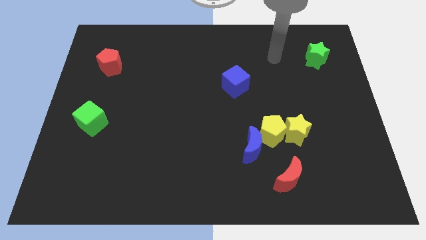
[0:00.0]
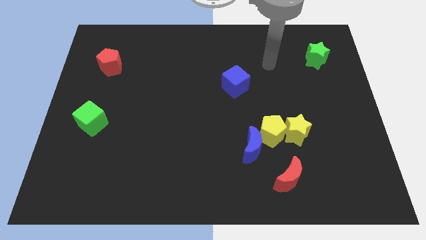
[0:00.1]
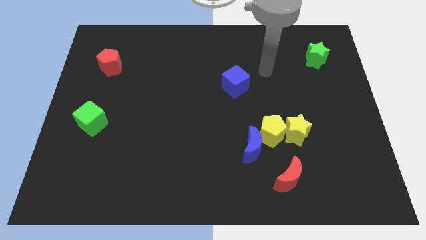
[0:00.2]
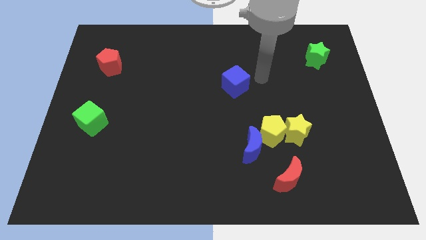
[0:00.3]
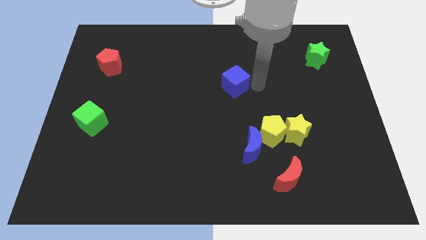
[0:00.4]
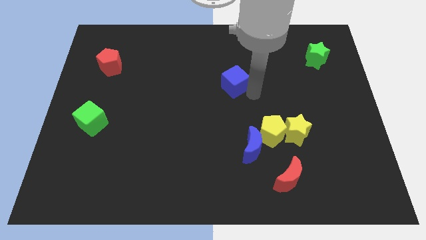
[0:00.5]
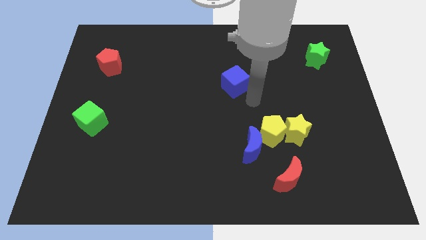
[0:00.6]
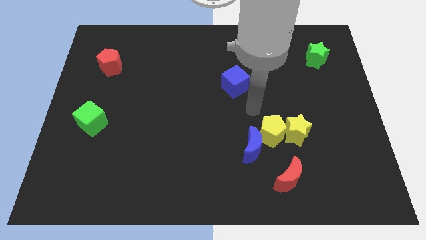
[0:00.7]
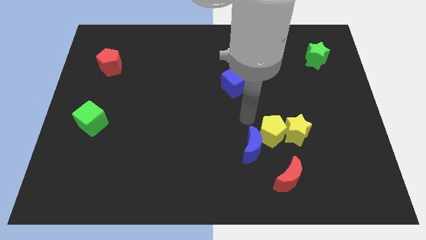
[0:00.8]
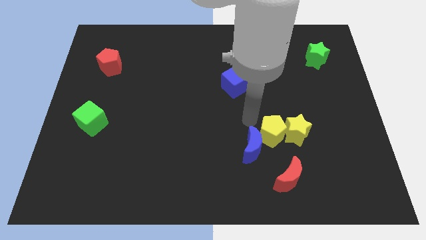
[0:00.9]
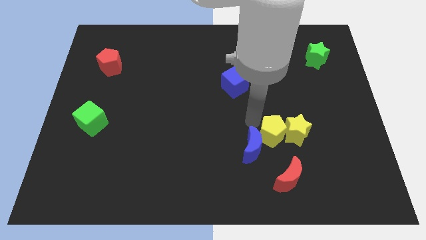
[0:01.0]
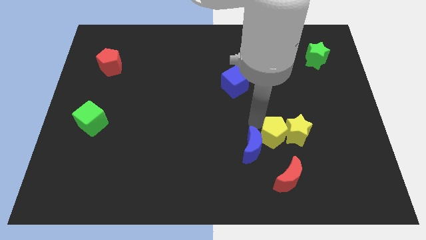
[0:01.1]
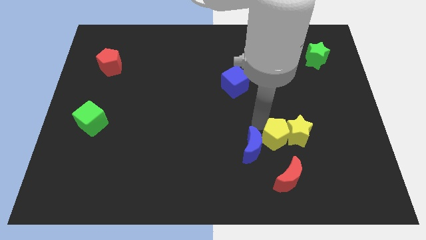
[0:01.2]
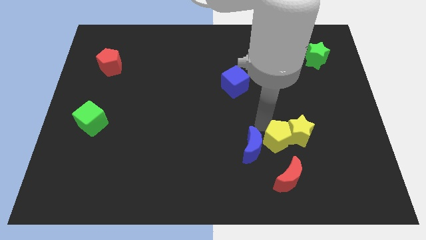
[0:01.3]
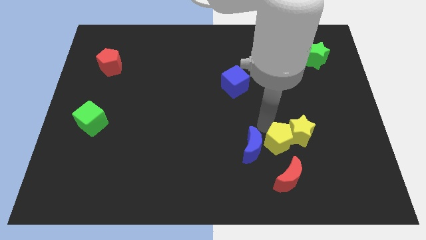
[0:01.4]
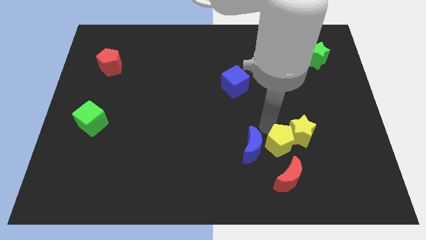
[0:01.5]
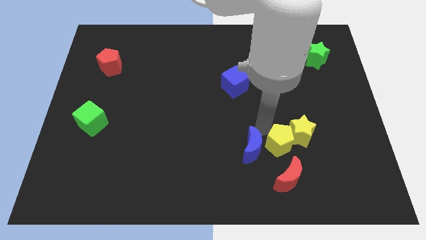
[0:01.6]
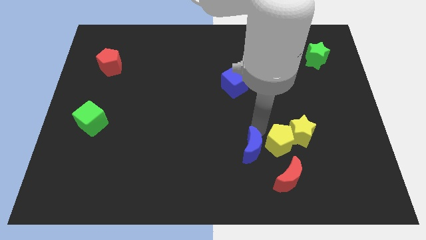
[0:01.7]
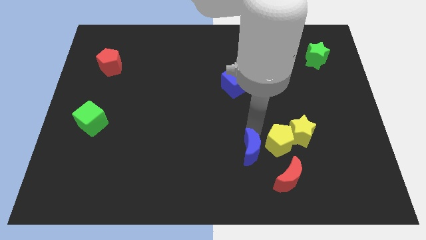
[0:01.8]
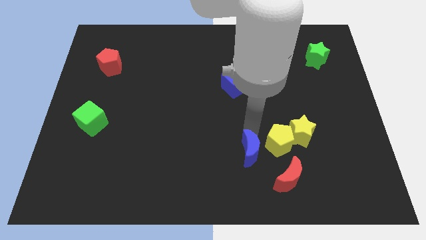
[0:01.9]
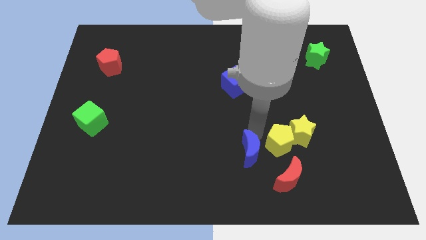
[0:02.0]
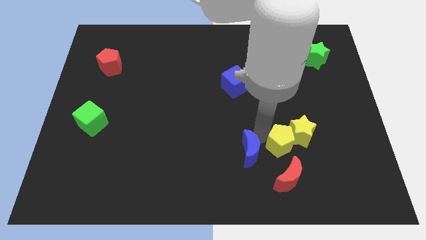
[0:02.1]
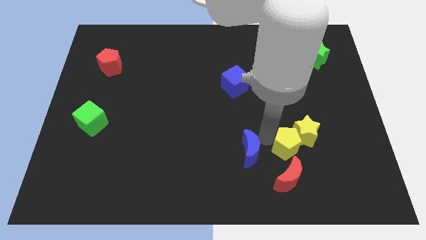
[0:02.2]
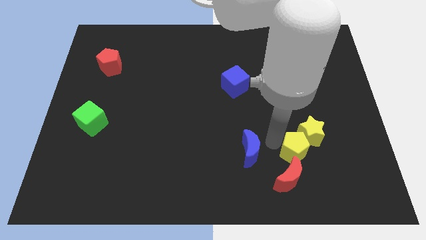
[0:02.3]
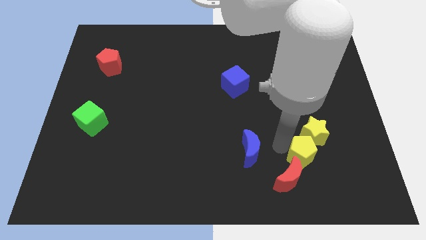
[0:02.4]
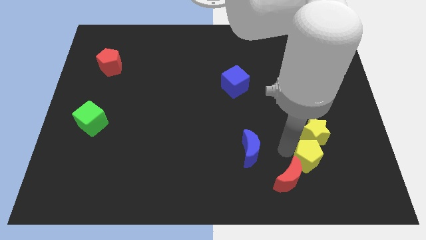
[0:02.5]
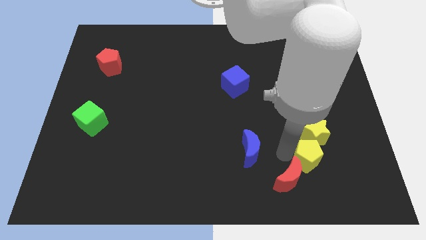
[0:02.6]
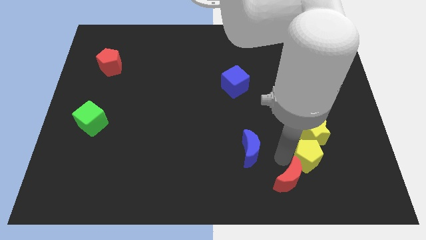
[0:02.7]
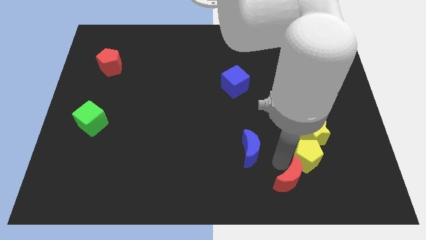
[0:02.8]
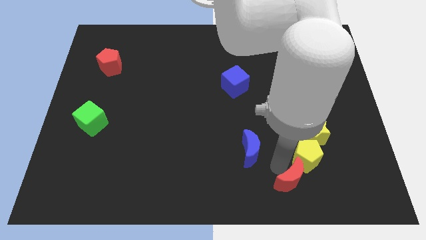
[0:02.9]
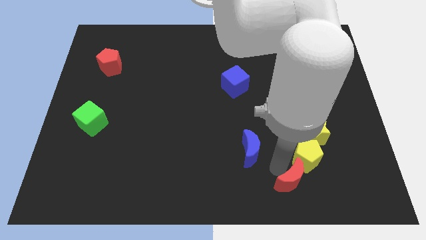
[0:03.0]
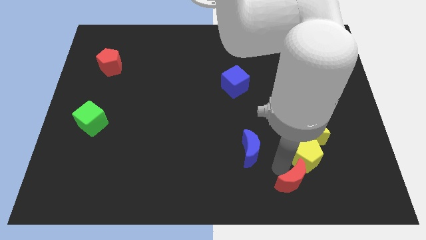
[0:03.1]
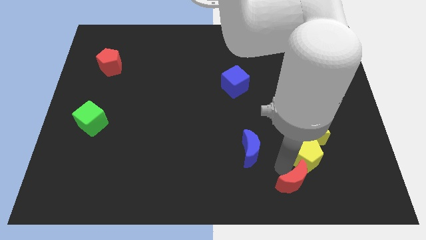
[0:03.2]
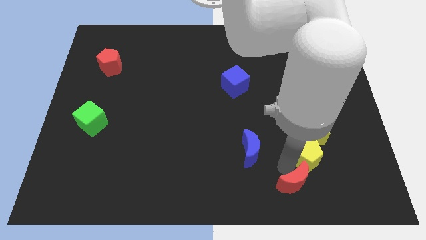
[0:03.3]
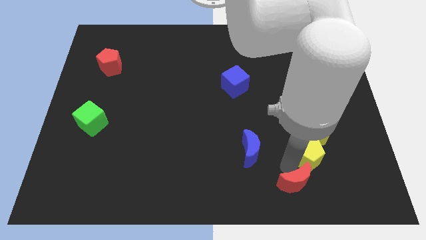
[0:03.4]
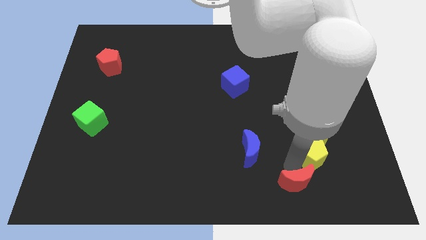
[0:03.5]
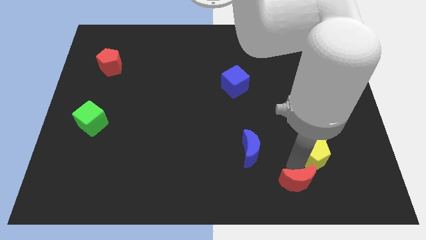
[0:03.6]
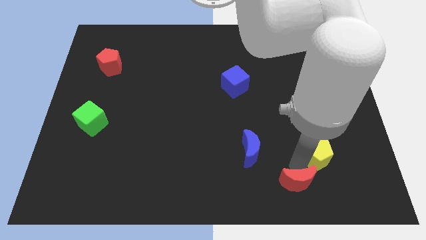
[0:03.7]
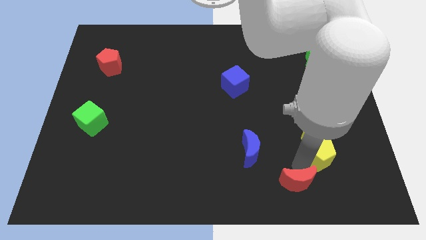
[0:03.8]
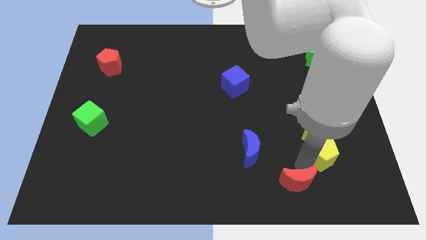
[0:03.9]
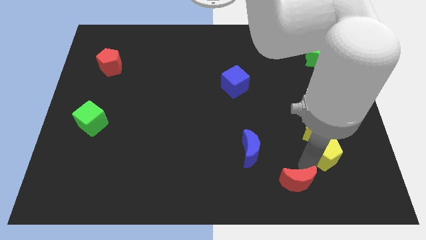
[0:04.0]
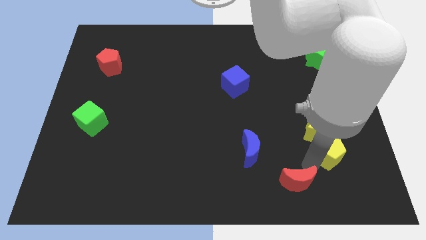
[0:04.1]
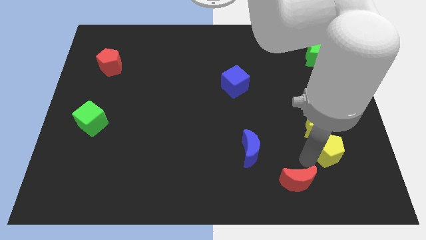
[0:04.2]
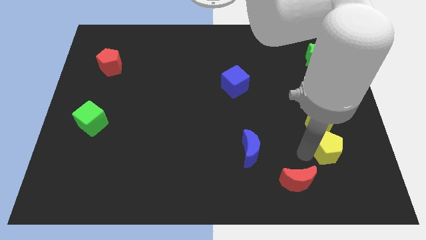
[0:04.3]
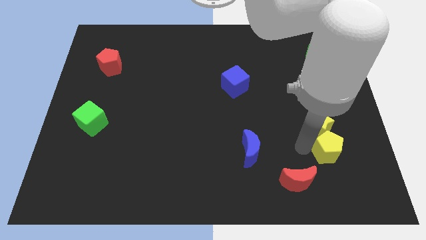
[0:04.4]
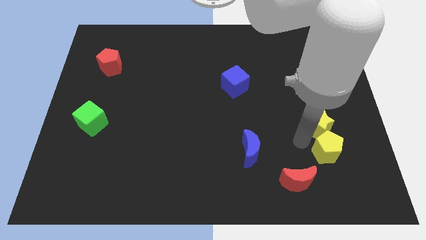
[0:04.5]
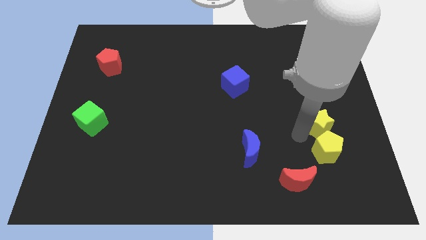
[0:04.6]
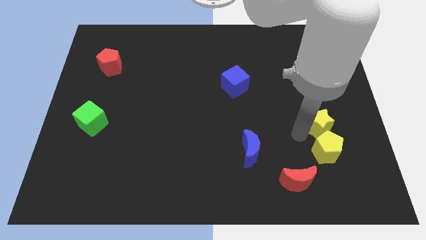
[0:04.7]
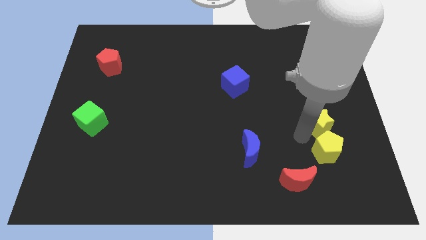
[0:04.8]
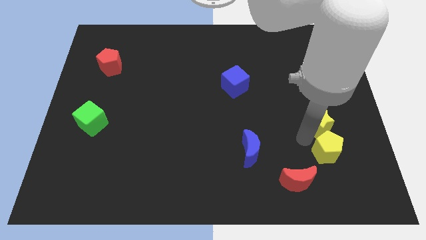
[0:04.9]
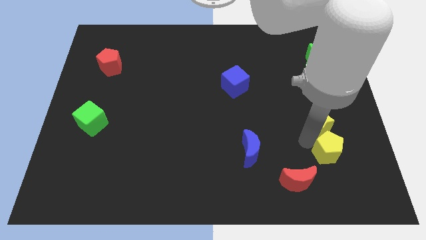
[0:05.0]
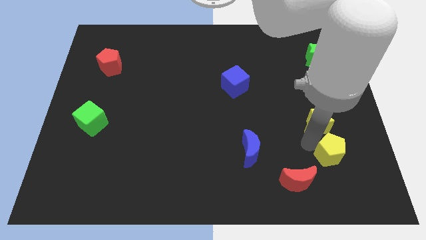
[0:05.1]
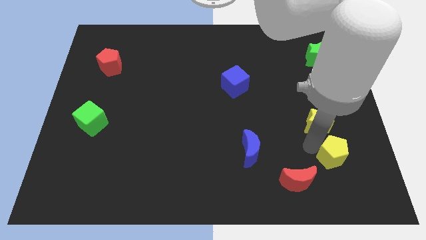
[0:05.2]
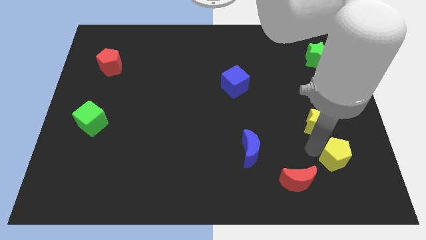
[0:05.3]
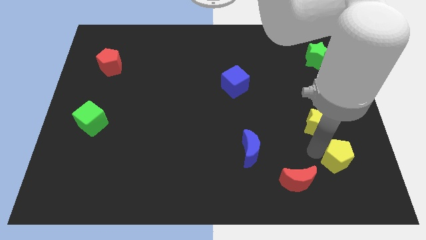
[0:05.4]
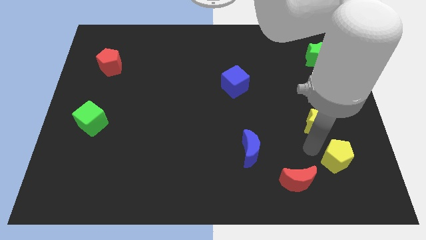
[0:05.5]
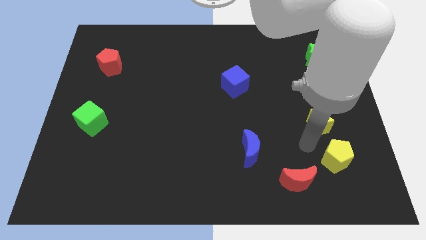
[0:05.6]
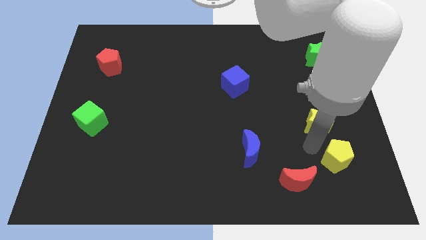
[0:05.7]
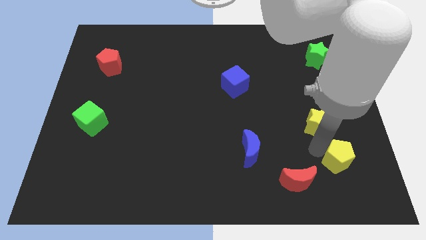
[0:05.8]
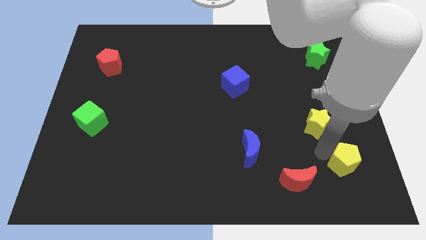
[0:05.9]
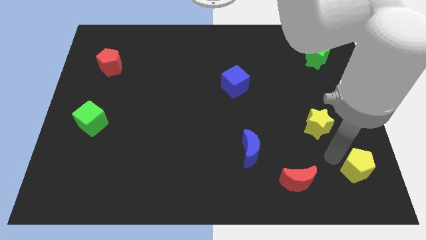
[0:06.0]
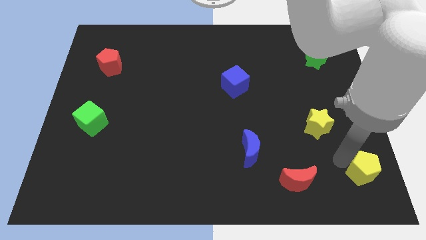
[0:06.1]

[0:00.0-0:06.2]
slide the yellow pentagon to the bottom right of the board

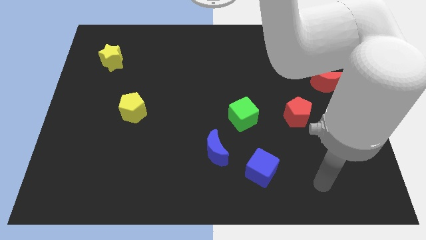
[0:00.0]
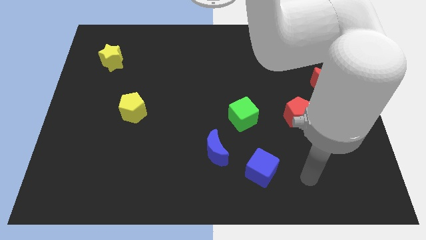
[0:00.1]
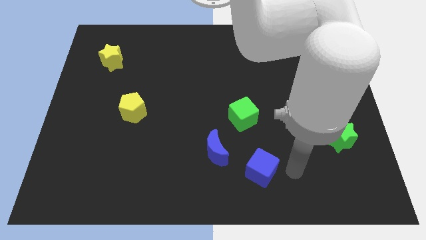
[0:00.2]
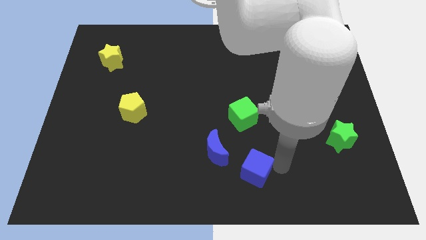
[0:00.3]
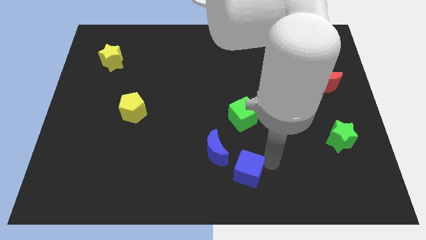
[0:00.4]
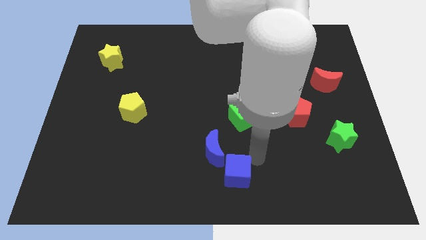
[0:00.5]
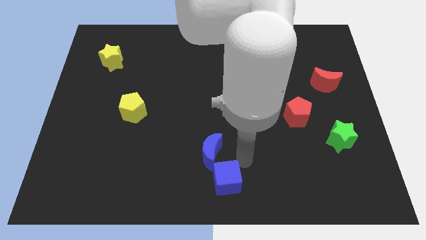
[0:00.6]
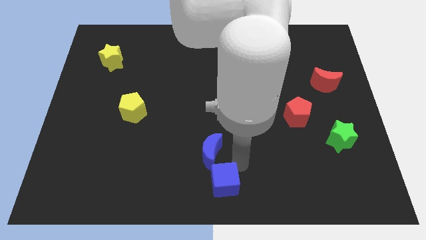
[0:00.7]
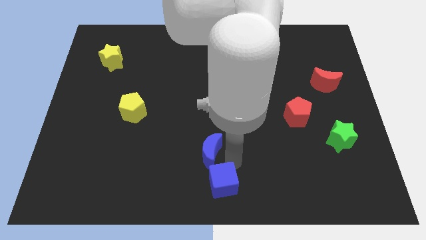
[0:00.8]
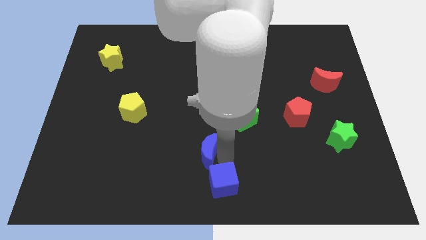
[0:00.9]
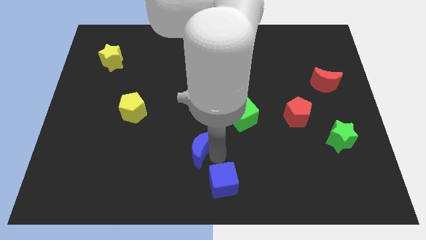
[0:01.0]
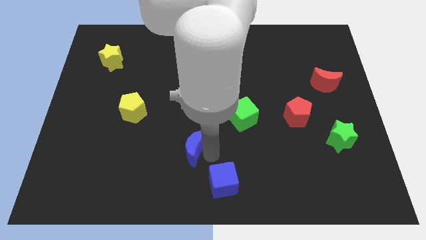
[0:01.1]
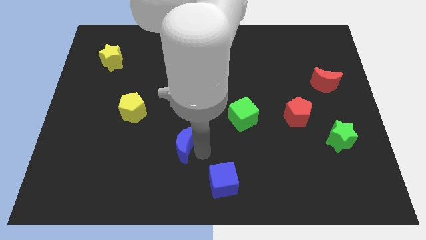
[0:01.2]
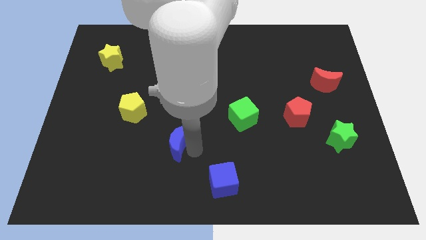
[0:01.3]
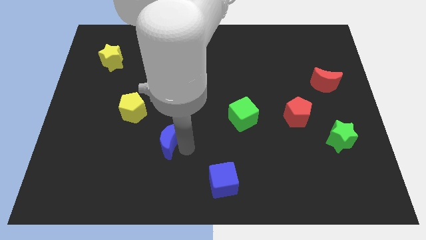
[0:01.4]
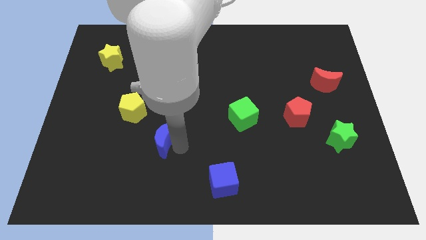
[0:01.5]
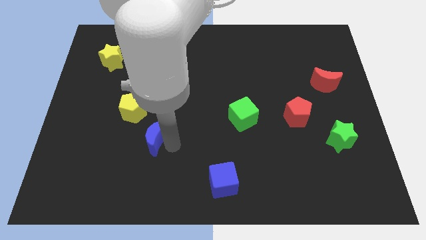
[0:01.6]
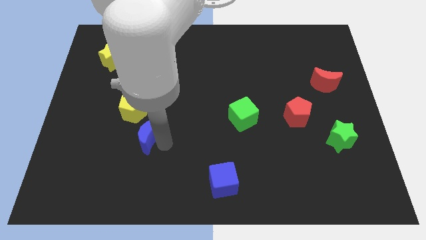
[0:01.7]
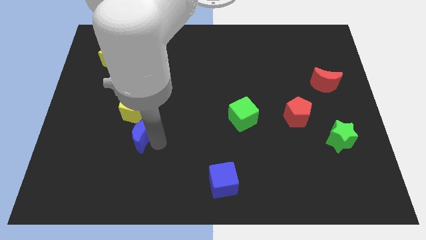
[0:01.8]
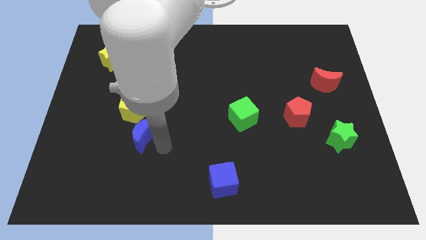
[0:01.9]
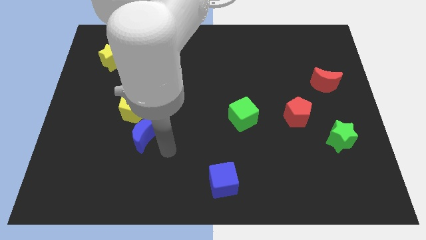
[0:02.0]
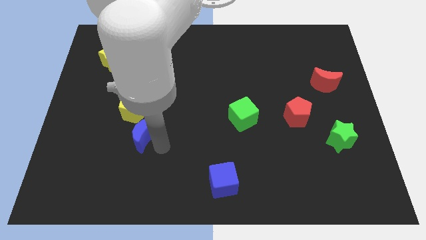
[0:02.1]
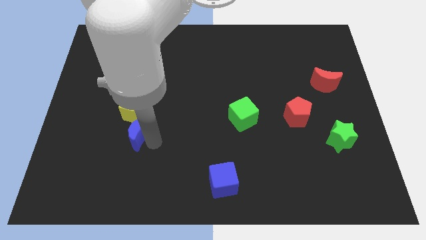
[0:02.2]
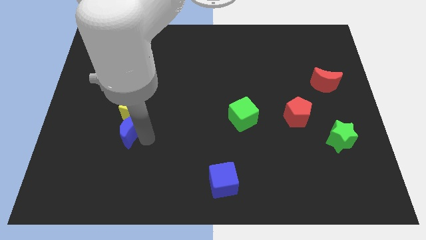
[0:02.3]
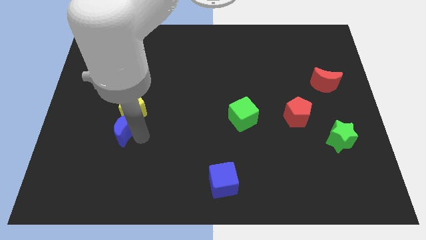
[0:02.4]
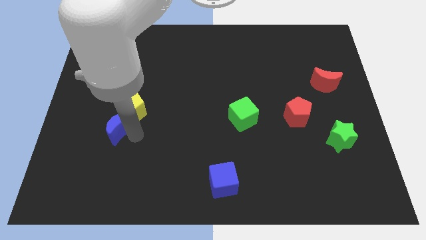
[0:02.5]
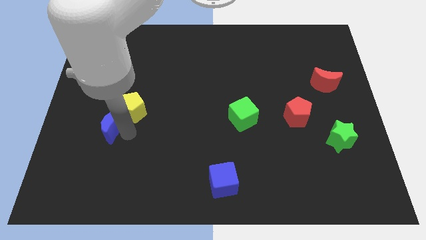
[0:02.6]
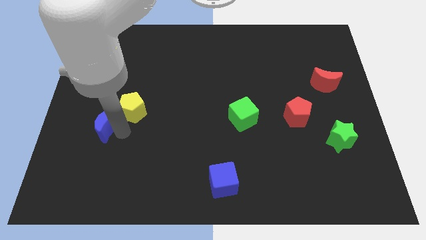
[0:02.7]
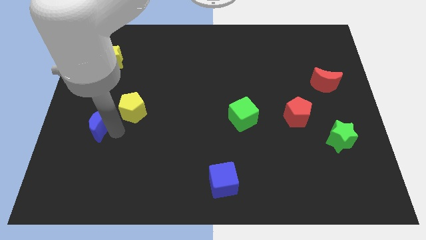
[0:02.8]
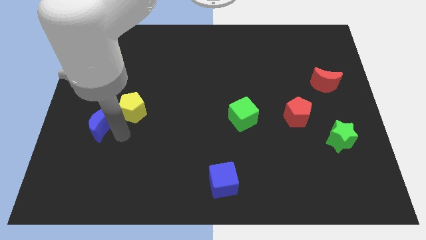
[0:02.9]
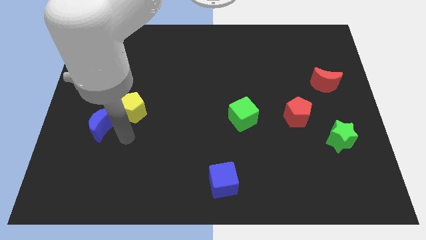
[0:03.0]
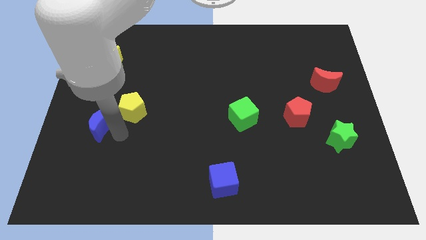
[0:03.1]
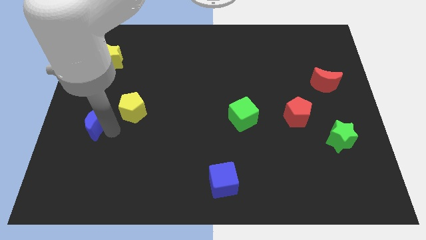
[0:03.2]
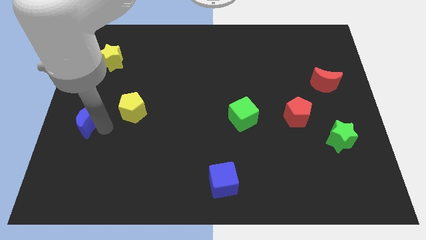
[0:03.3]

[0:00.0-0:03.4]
put the blue moon to the left side of the board
